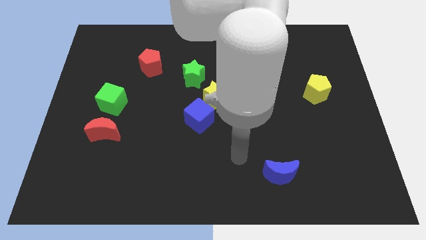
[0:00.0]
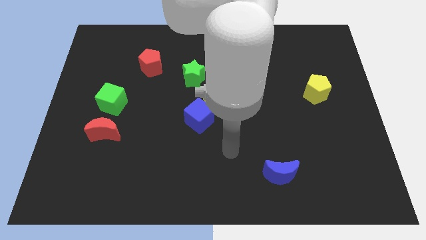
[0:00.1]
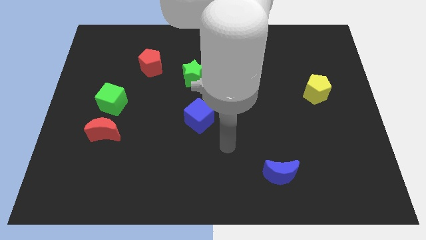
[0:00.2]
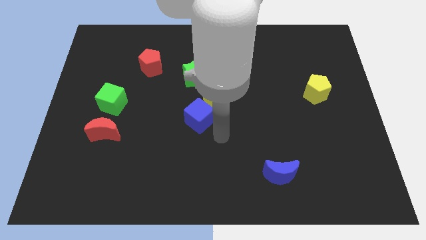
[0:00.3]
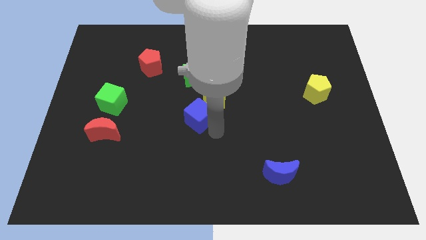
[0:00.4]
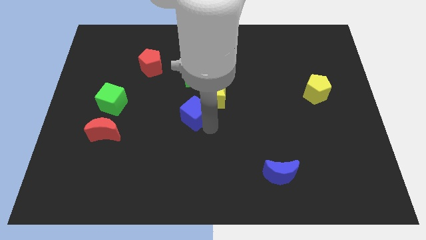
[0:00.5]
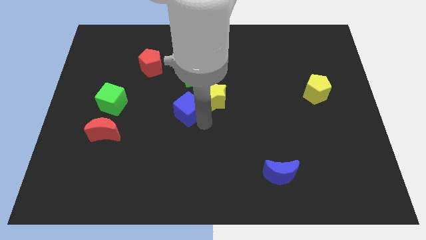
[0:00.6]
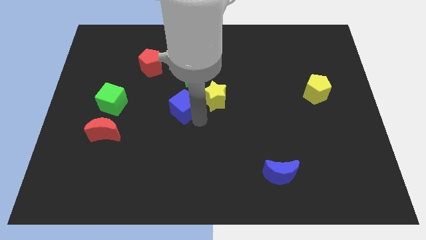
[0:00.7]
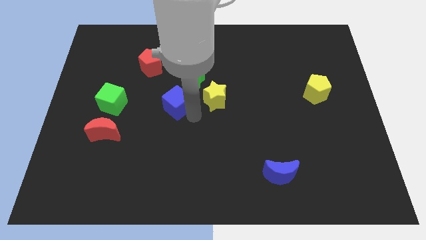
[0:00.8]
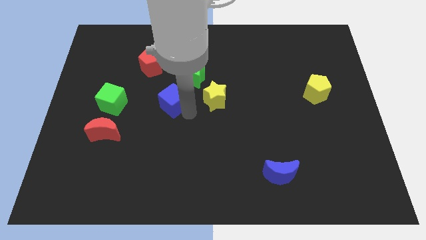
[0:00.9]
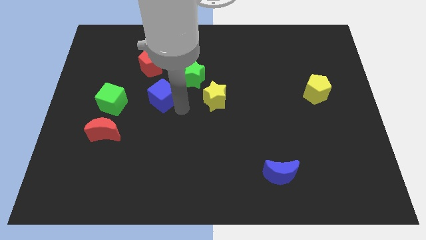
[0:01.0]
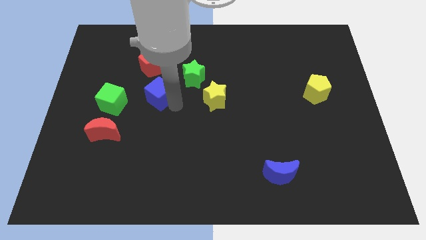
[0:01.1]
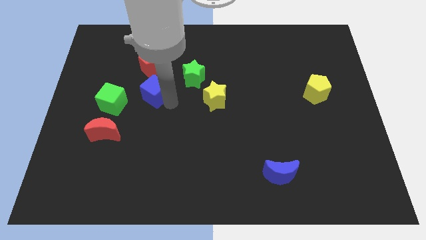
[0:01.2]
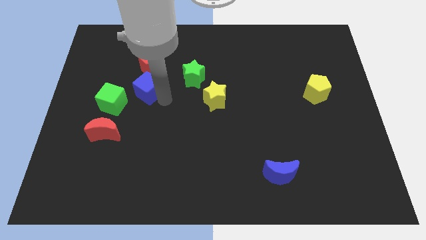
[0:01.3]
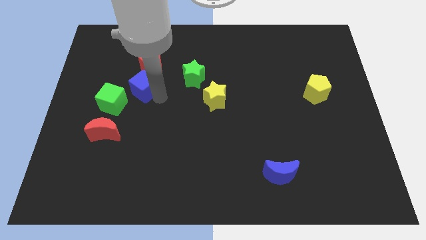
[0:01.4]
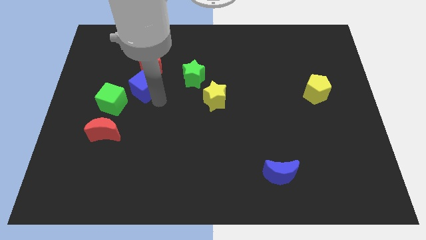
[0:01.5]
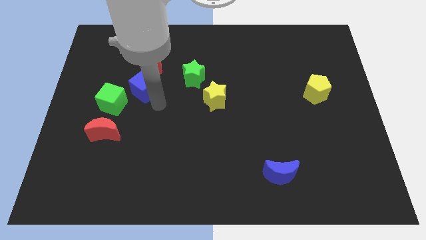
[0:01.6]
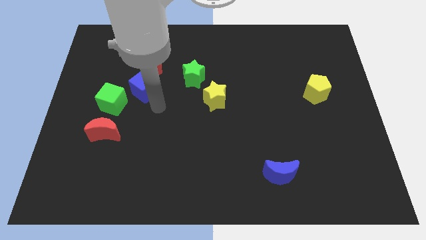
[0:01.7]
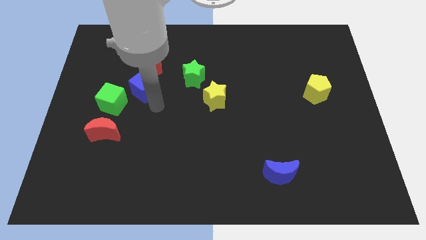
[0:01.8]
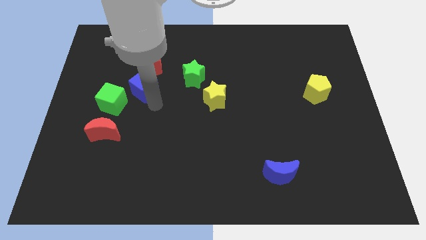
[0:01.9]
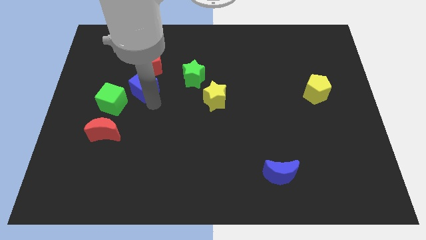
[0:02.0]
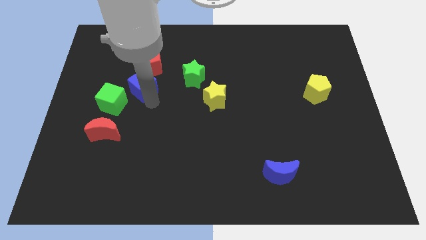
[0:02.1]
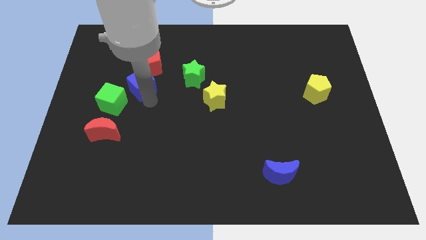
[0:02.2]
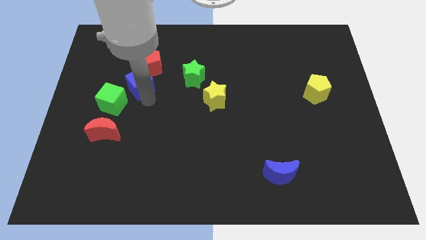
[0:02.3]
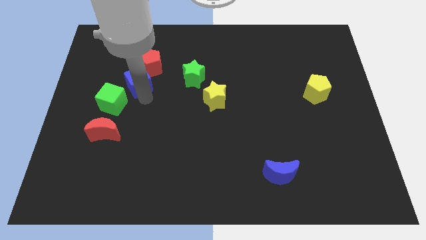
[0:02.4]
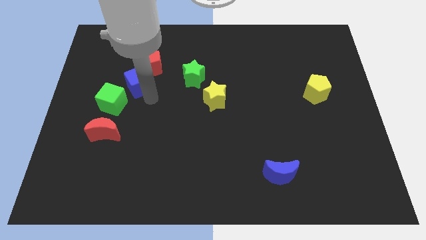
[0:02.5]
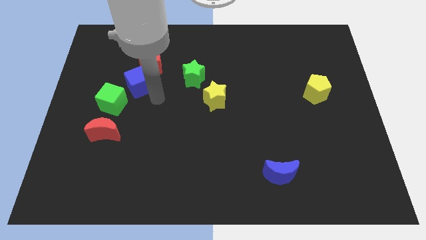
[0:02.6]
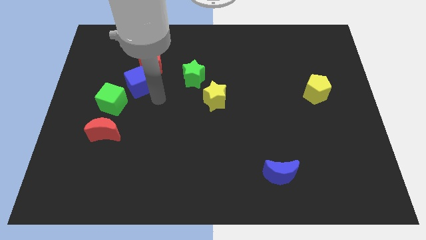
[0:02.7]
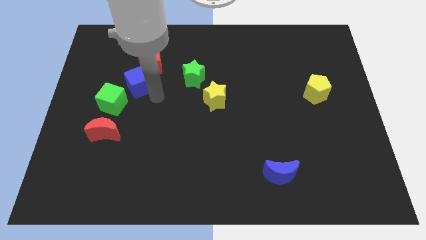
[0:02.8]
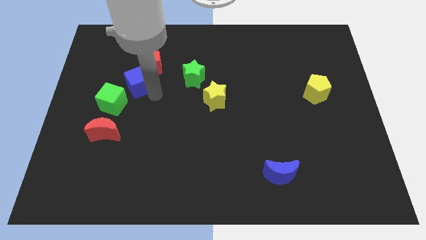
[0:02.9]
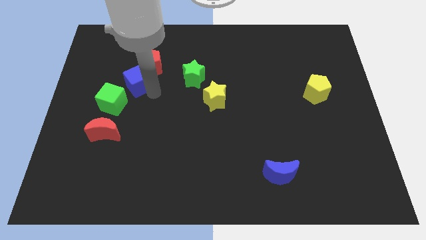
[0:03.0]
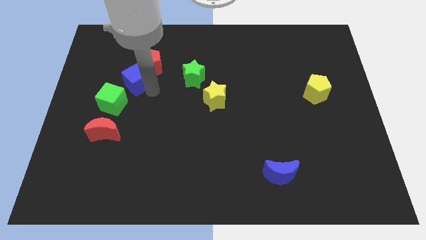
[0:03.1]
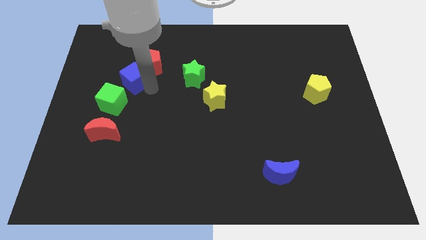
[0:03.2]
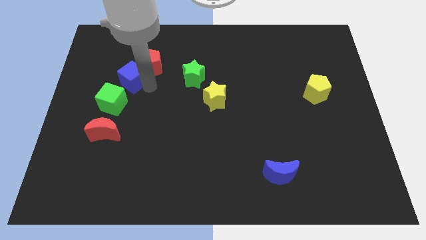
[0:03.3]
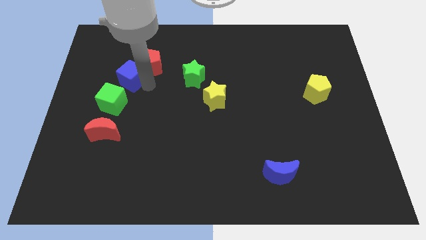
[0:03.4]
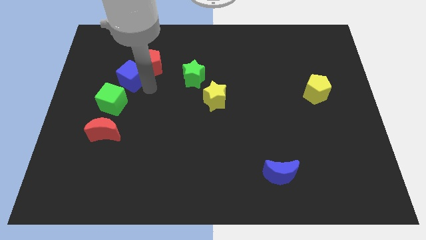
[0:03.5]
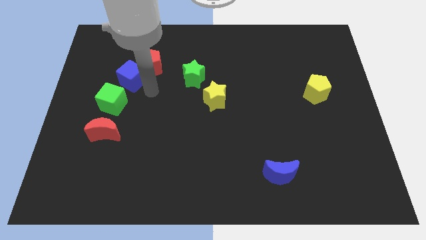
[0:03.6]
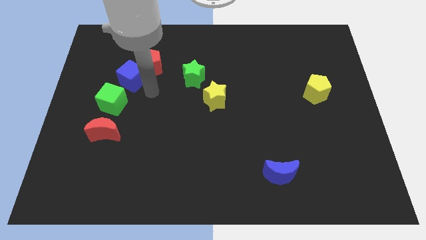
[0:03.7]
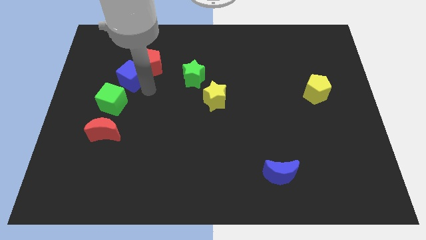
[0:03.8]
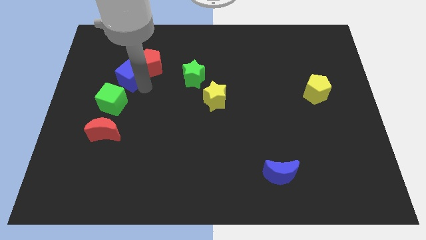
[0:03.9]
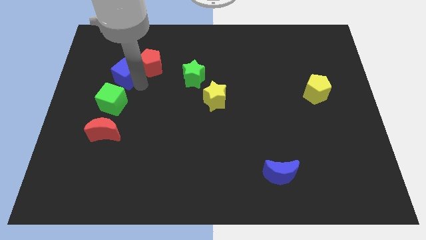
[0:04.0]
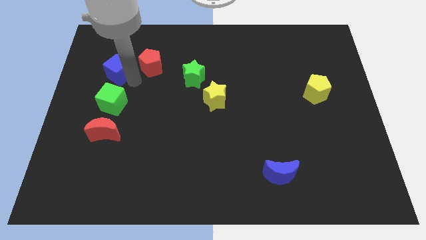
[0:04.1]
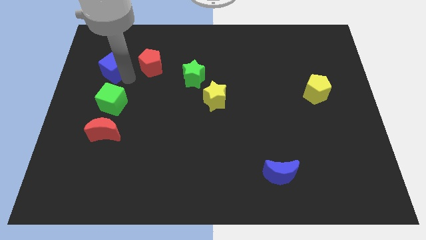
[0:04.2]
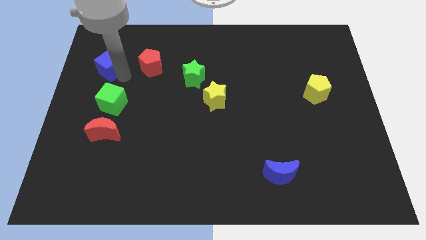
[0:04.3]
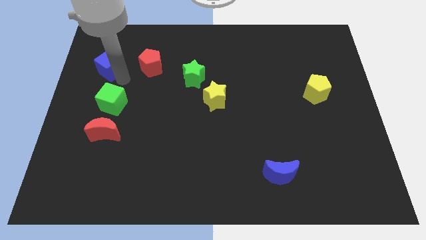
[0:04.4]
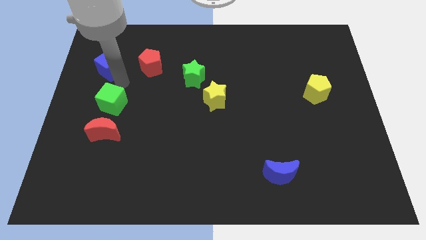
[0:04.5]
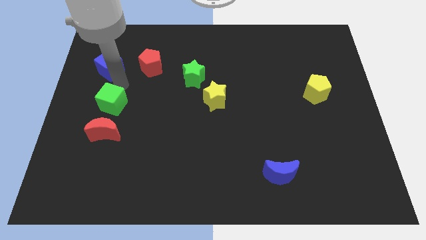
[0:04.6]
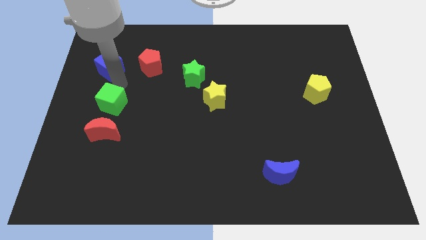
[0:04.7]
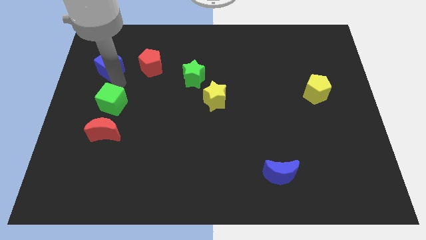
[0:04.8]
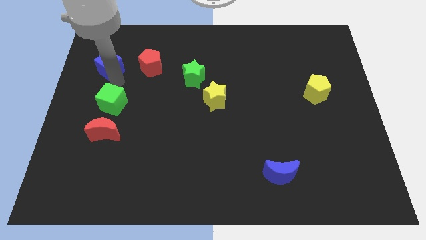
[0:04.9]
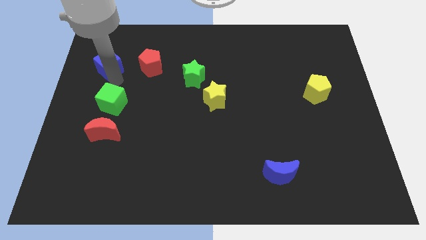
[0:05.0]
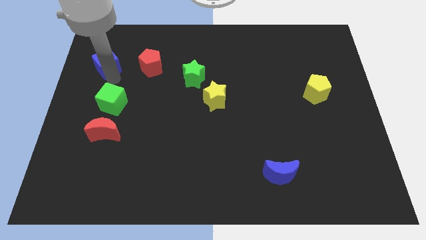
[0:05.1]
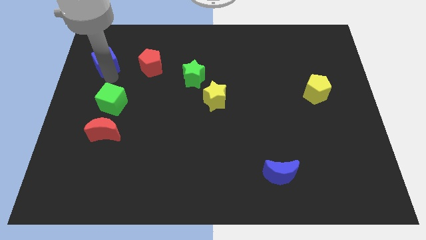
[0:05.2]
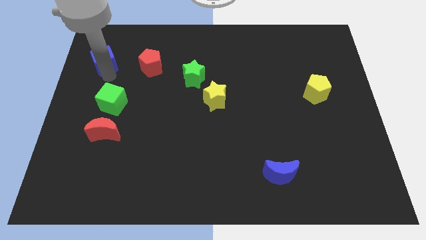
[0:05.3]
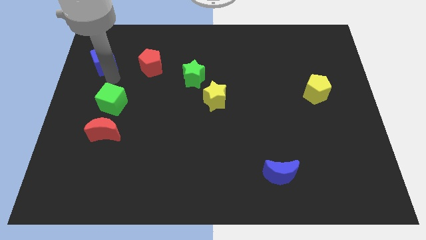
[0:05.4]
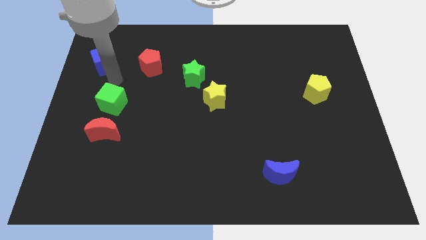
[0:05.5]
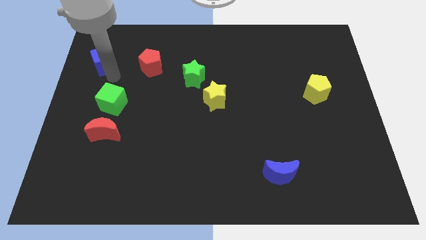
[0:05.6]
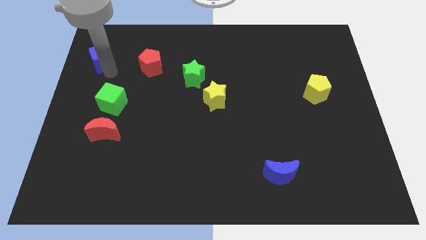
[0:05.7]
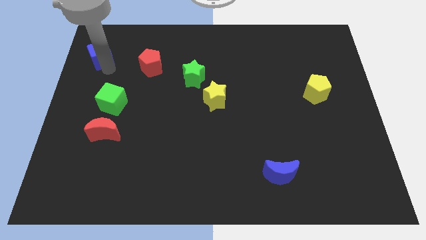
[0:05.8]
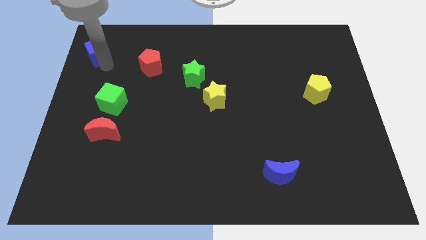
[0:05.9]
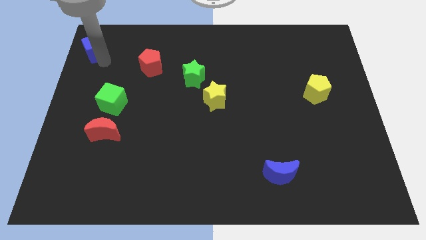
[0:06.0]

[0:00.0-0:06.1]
push the blue cube to the top left

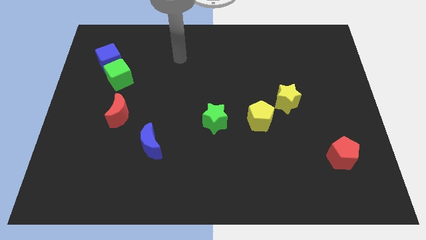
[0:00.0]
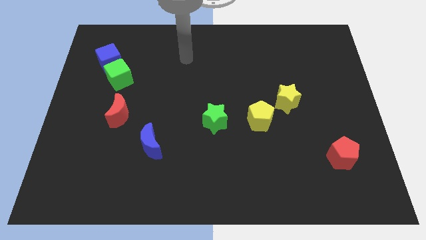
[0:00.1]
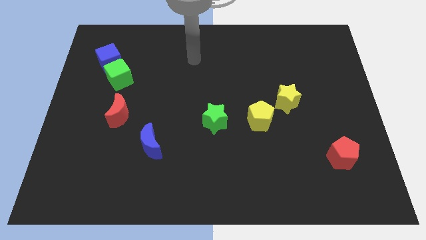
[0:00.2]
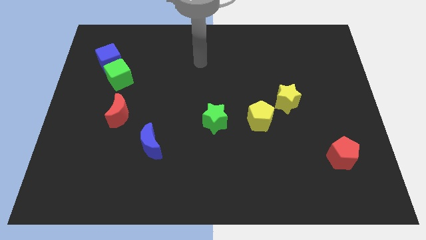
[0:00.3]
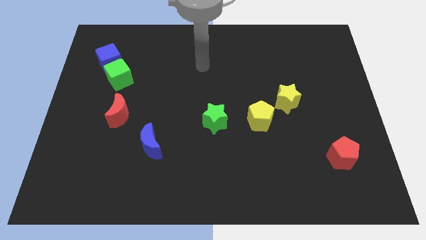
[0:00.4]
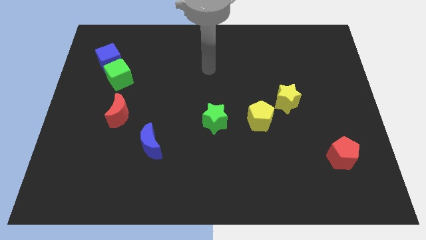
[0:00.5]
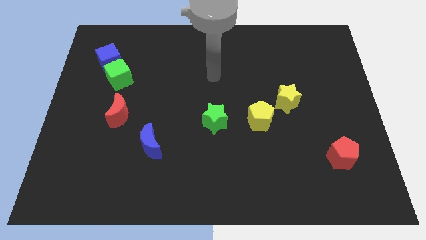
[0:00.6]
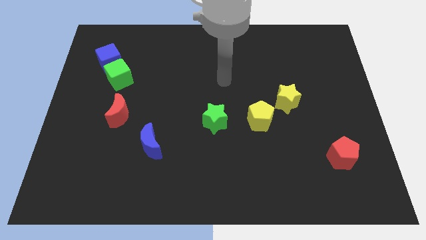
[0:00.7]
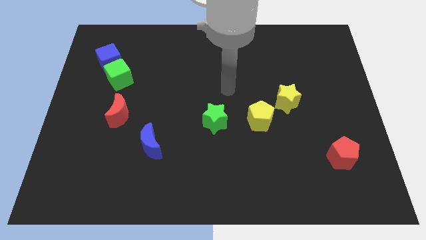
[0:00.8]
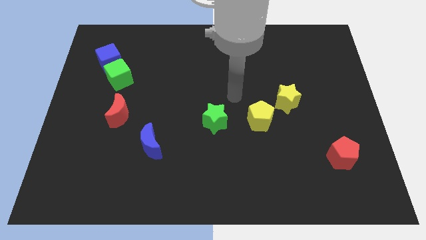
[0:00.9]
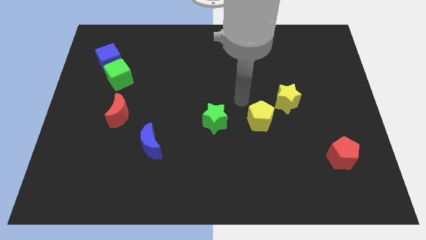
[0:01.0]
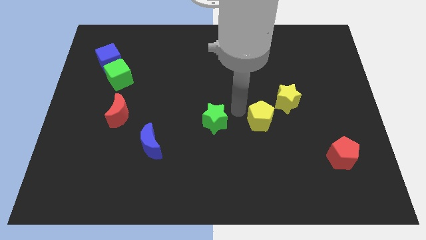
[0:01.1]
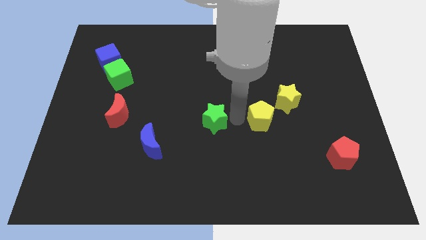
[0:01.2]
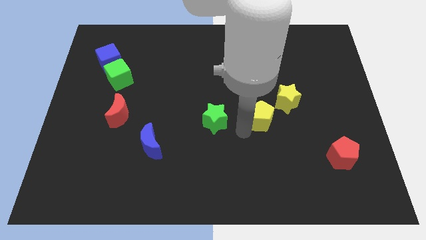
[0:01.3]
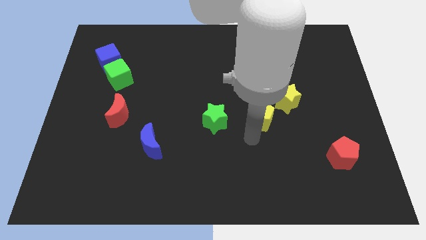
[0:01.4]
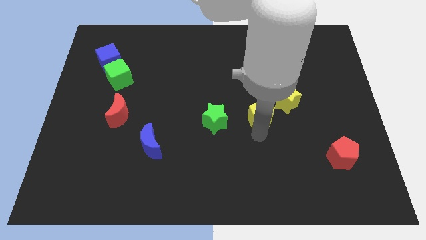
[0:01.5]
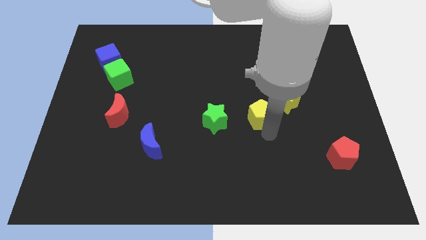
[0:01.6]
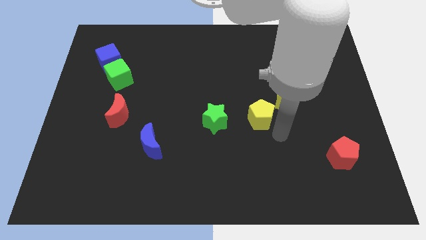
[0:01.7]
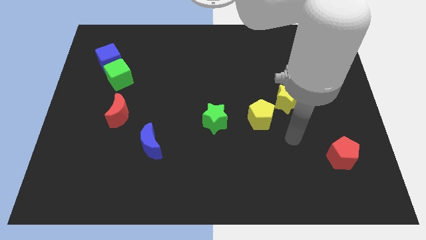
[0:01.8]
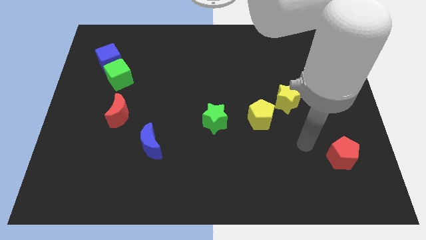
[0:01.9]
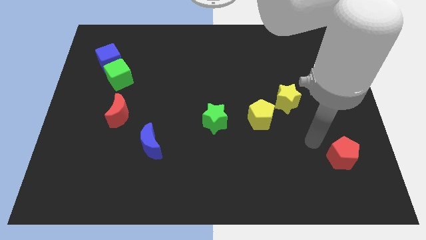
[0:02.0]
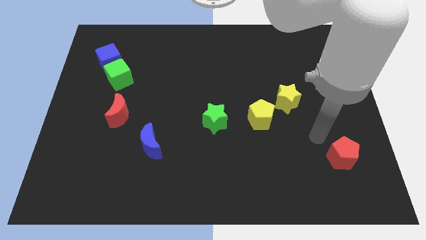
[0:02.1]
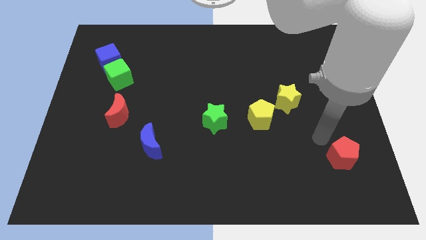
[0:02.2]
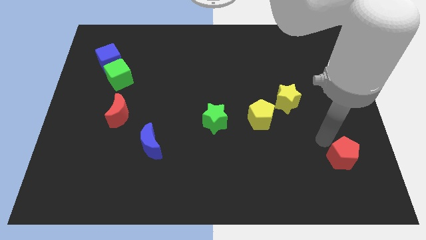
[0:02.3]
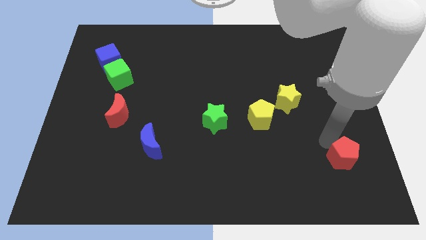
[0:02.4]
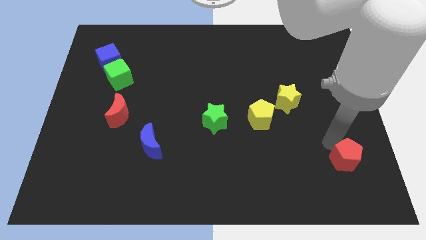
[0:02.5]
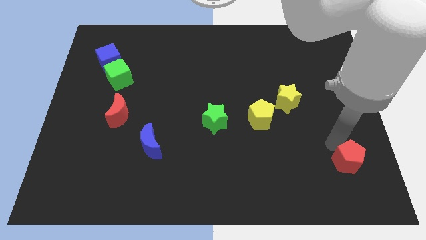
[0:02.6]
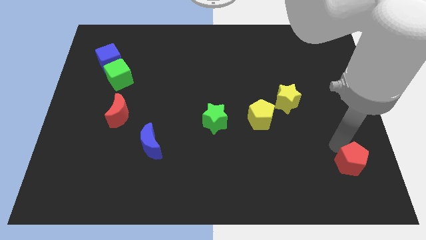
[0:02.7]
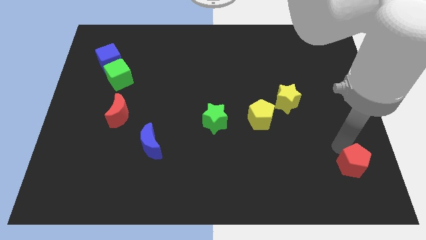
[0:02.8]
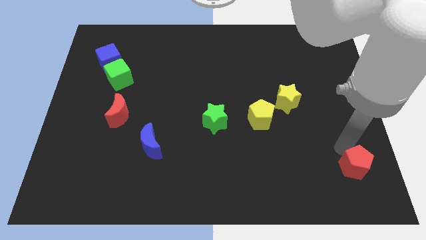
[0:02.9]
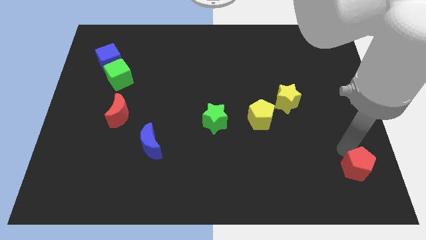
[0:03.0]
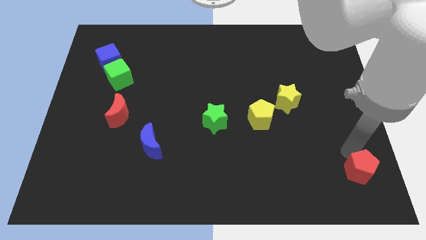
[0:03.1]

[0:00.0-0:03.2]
slide the red pentagon to the bottom right
